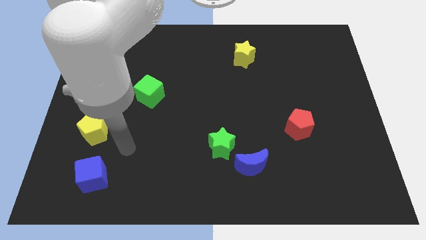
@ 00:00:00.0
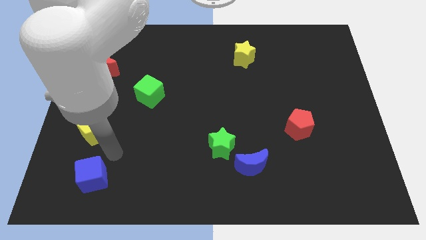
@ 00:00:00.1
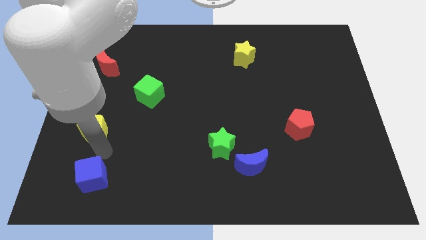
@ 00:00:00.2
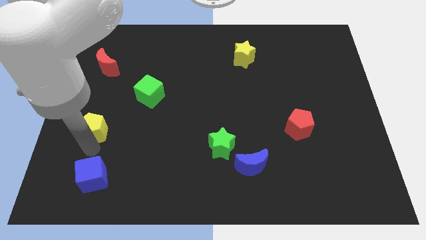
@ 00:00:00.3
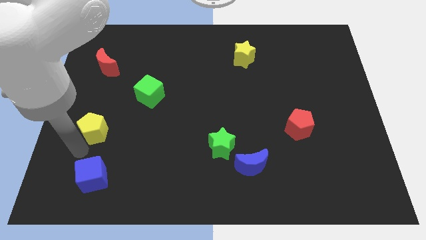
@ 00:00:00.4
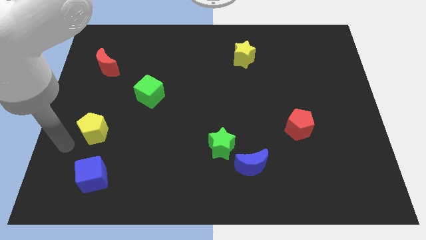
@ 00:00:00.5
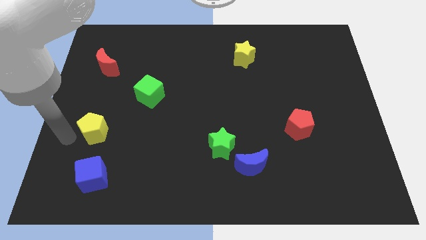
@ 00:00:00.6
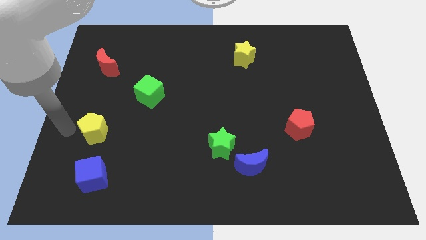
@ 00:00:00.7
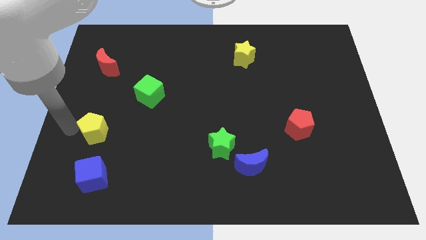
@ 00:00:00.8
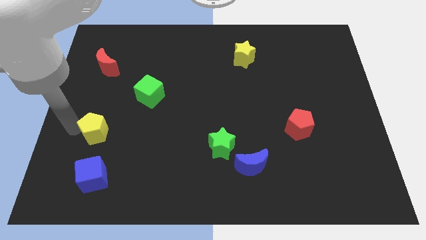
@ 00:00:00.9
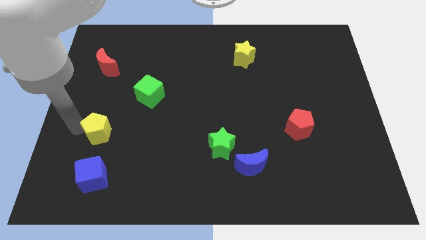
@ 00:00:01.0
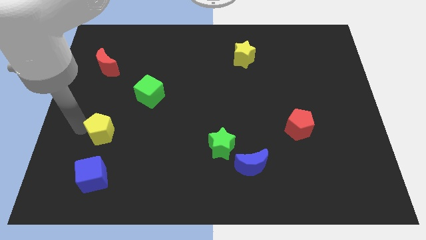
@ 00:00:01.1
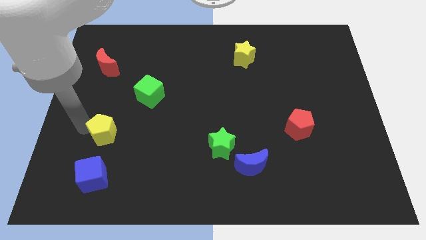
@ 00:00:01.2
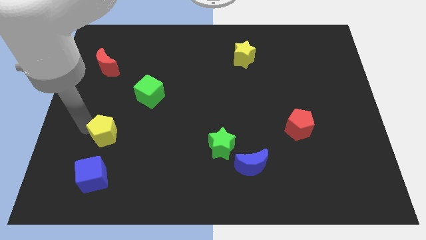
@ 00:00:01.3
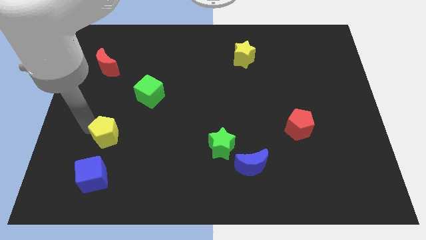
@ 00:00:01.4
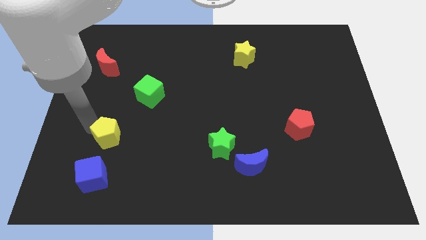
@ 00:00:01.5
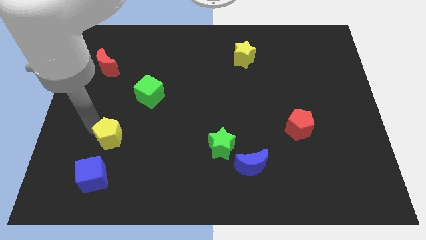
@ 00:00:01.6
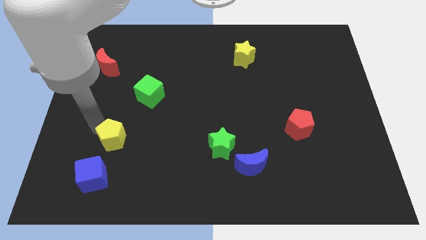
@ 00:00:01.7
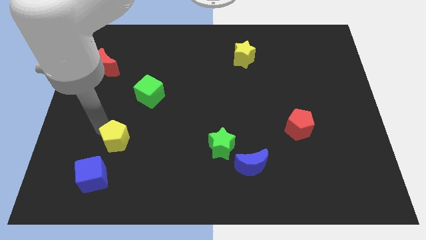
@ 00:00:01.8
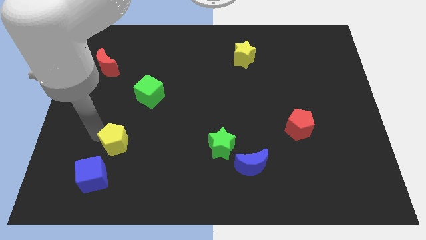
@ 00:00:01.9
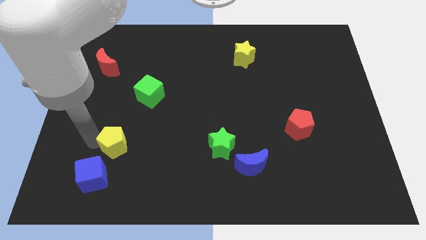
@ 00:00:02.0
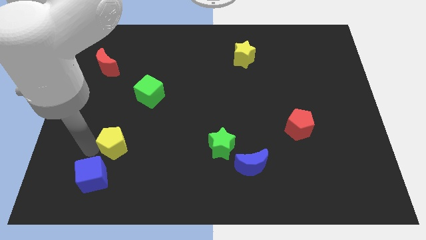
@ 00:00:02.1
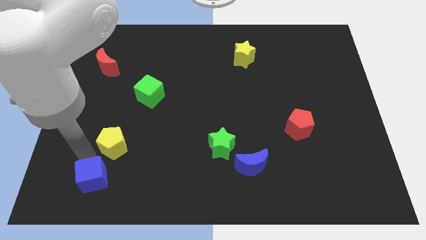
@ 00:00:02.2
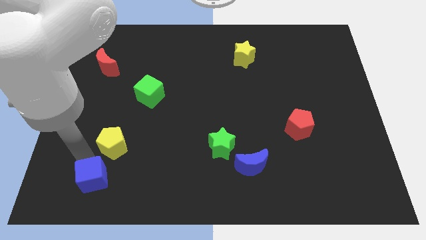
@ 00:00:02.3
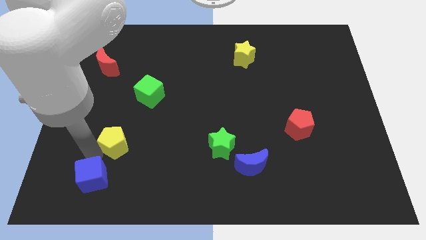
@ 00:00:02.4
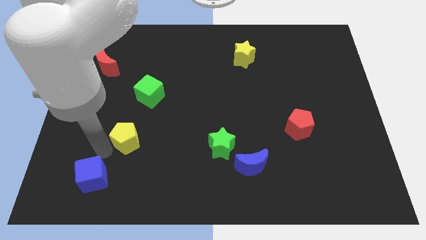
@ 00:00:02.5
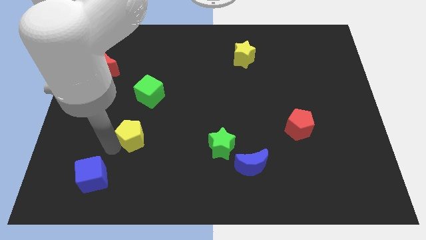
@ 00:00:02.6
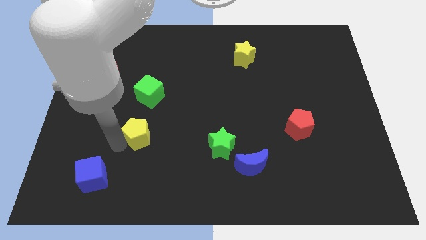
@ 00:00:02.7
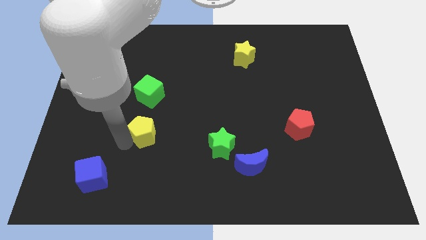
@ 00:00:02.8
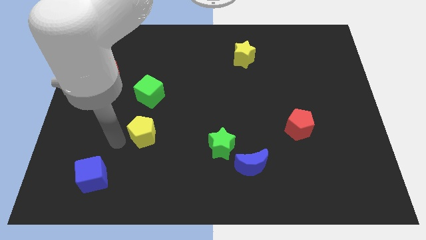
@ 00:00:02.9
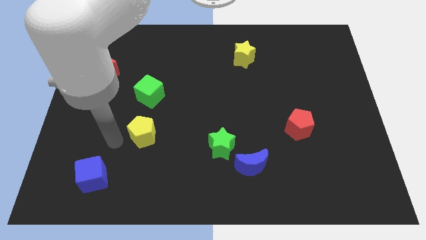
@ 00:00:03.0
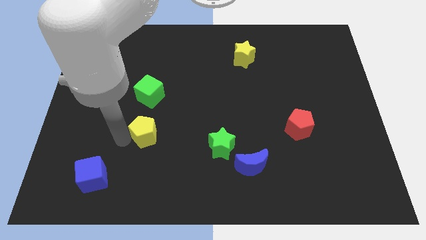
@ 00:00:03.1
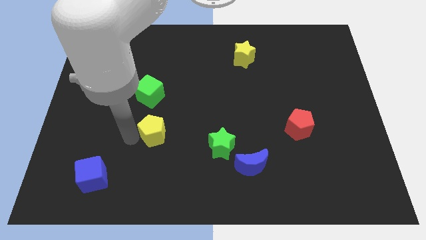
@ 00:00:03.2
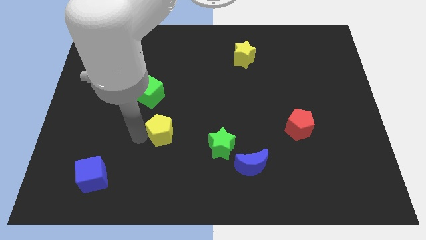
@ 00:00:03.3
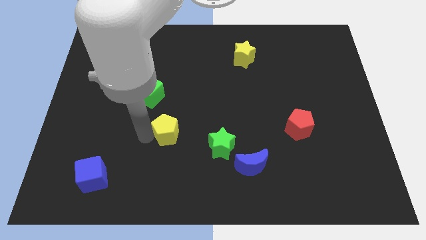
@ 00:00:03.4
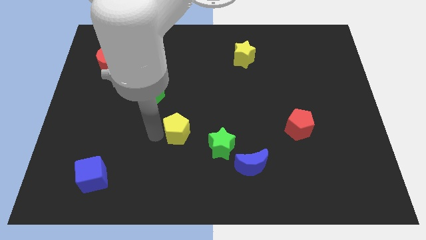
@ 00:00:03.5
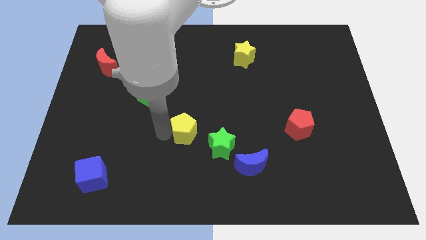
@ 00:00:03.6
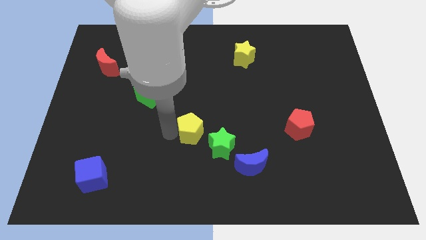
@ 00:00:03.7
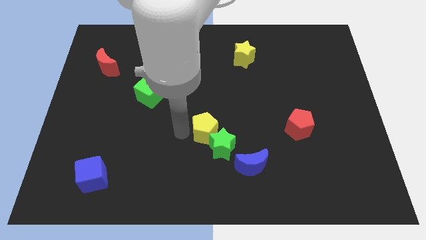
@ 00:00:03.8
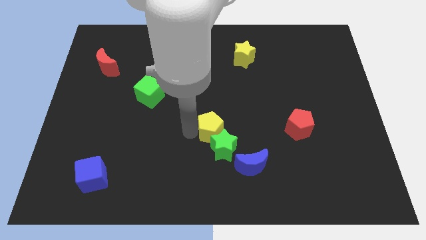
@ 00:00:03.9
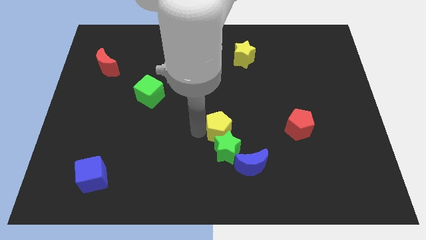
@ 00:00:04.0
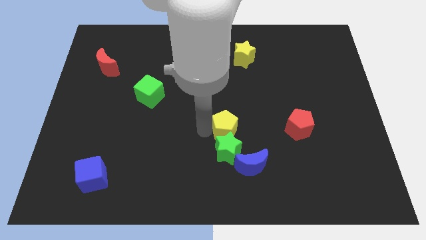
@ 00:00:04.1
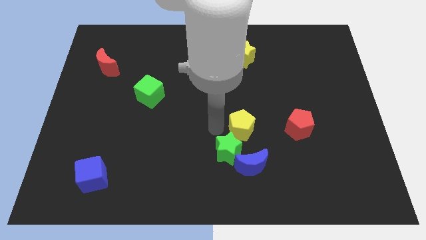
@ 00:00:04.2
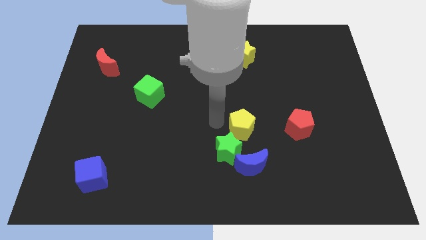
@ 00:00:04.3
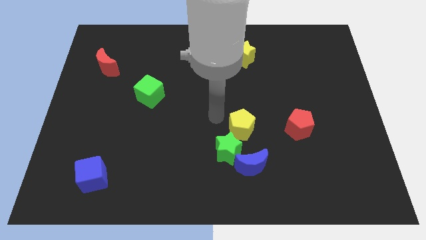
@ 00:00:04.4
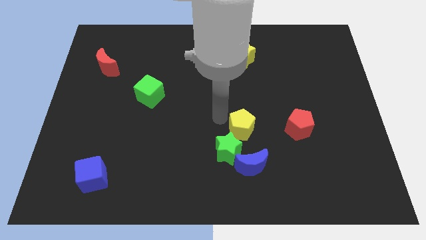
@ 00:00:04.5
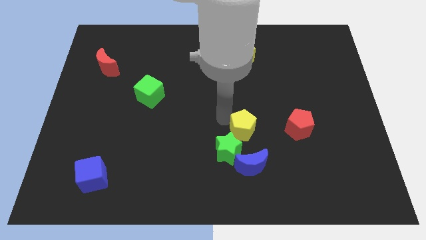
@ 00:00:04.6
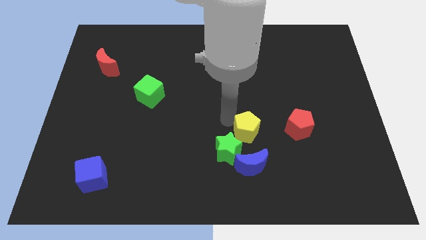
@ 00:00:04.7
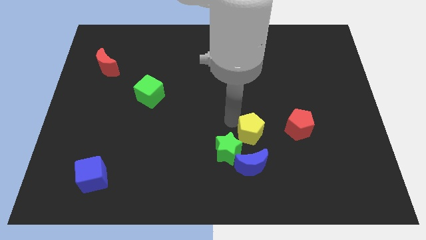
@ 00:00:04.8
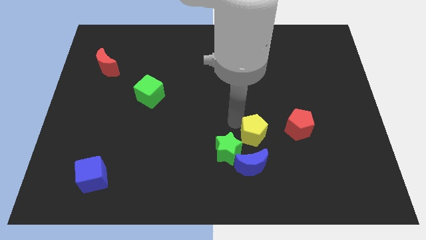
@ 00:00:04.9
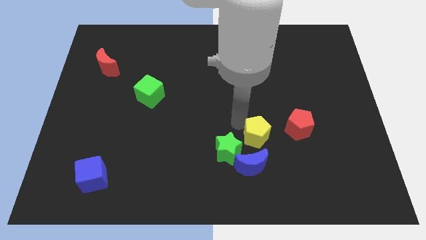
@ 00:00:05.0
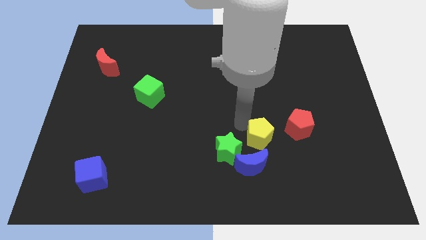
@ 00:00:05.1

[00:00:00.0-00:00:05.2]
put the yellow pentagon to the bottom left side of the red pentagon

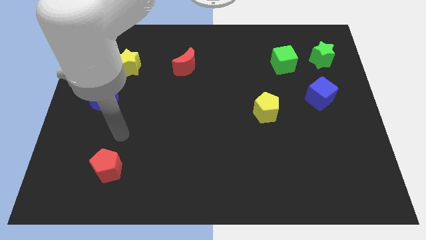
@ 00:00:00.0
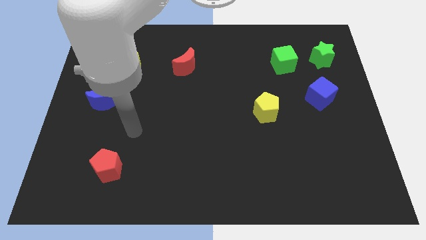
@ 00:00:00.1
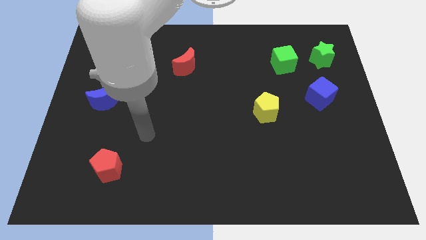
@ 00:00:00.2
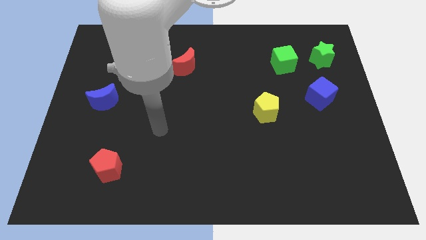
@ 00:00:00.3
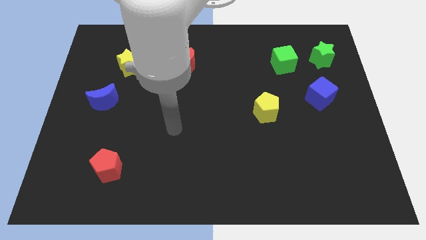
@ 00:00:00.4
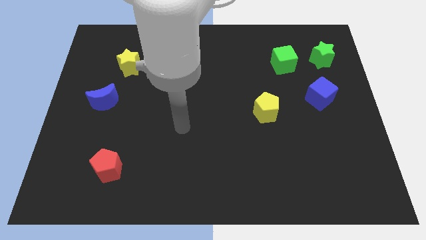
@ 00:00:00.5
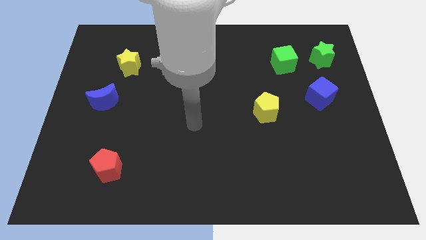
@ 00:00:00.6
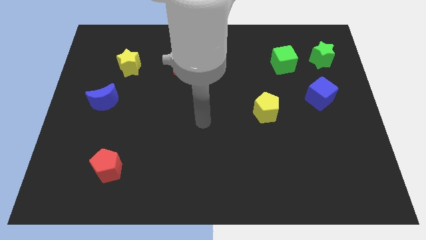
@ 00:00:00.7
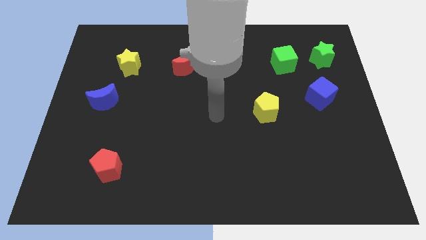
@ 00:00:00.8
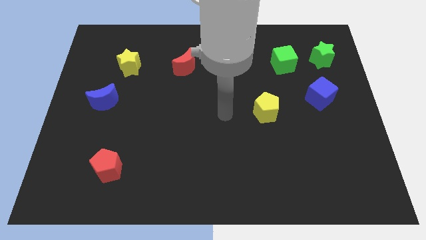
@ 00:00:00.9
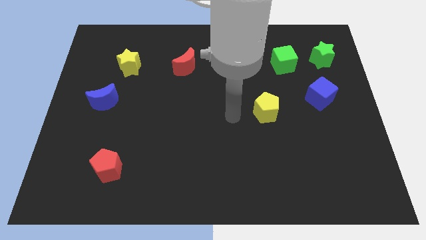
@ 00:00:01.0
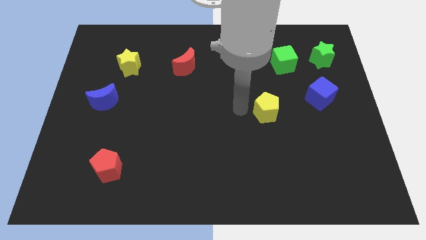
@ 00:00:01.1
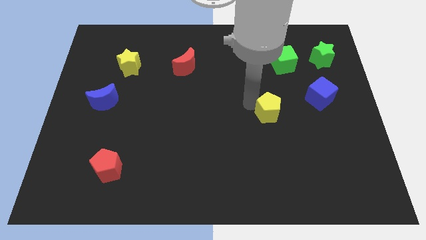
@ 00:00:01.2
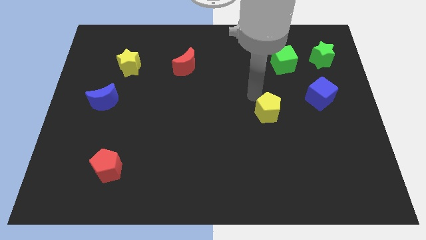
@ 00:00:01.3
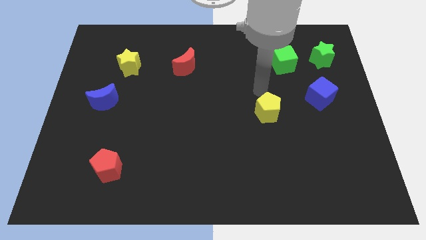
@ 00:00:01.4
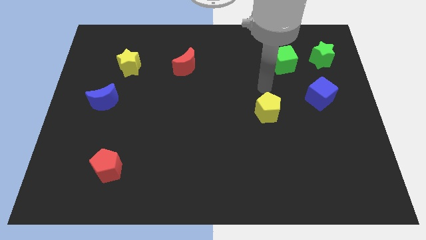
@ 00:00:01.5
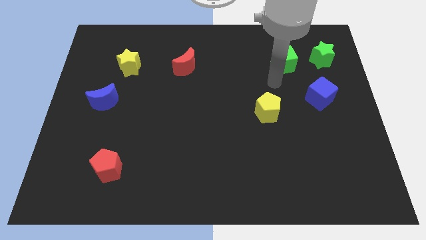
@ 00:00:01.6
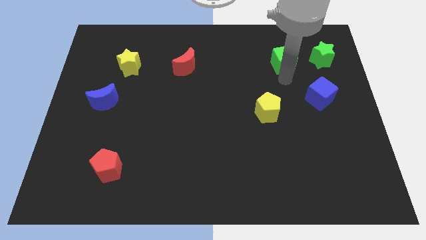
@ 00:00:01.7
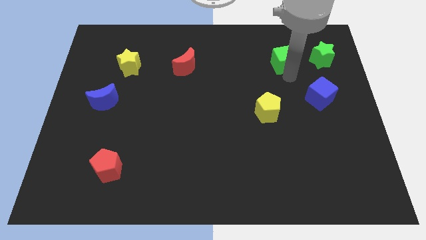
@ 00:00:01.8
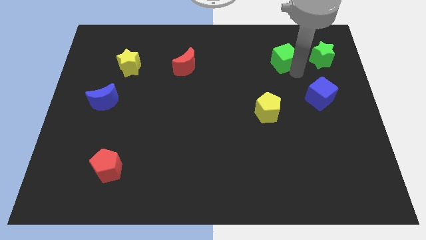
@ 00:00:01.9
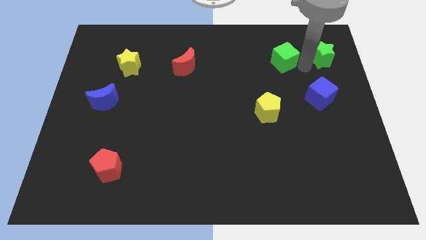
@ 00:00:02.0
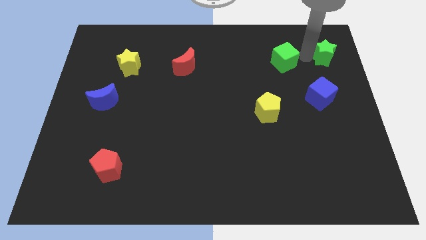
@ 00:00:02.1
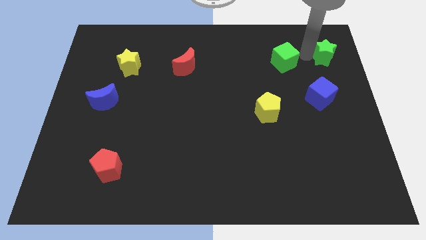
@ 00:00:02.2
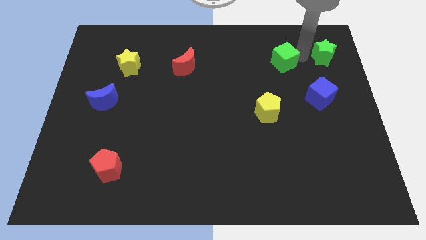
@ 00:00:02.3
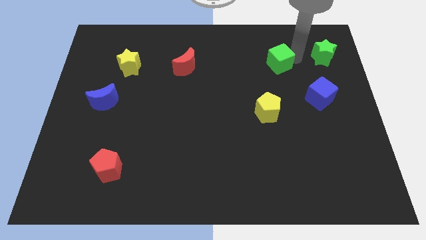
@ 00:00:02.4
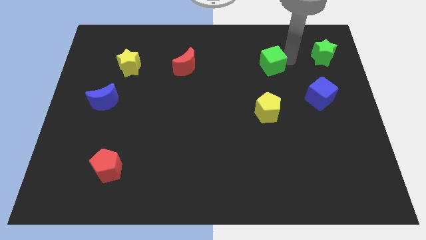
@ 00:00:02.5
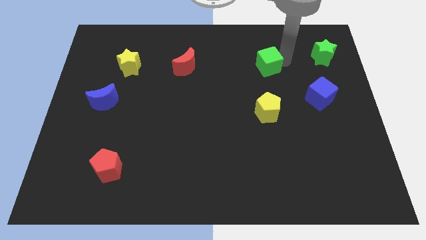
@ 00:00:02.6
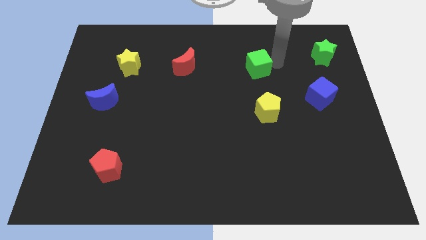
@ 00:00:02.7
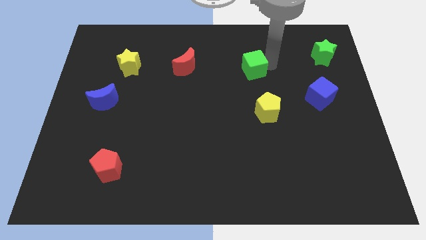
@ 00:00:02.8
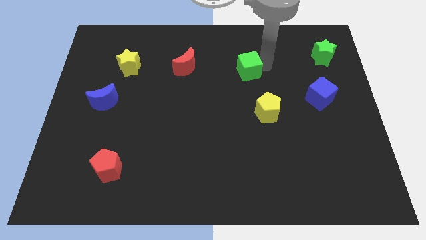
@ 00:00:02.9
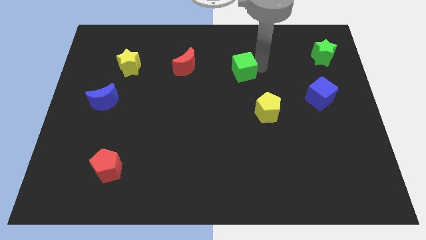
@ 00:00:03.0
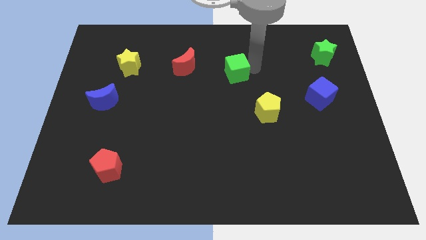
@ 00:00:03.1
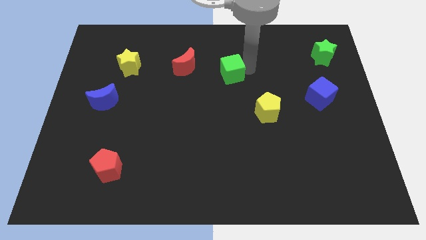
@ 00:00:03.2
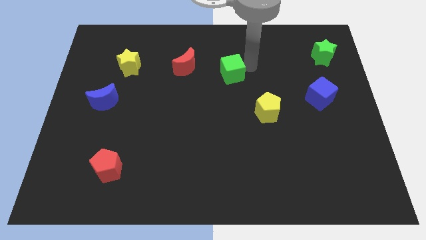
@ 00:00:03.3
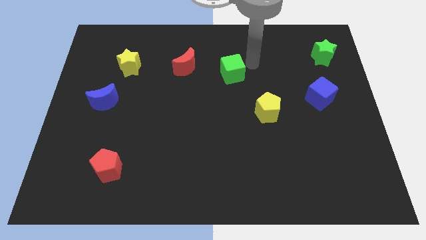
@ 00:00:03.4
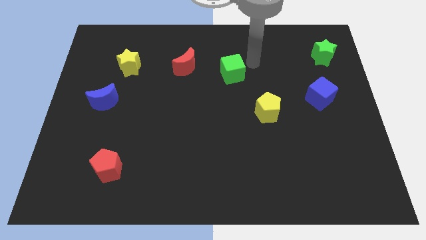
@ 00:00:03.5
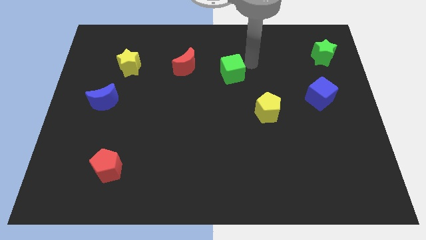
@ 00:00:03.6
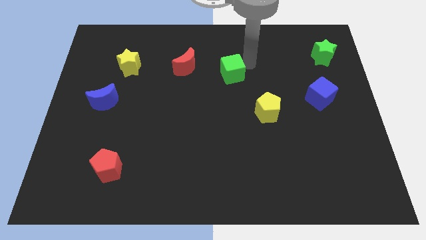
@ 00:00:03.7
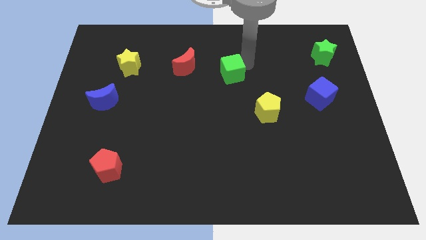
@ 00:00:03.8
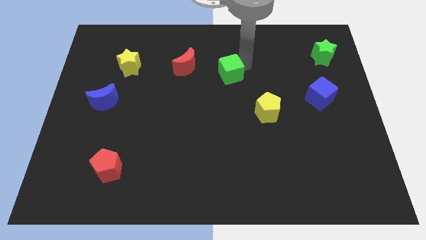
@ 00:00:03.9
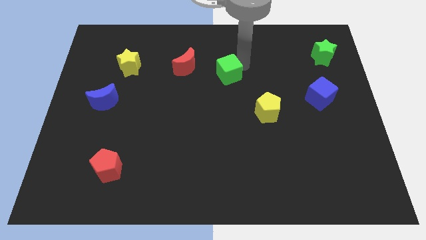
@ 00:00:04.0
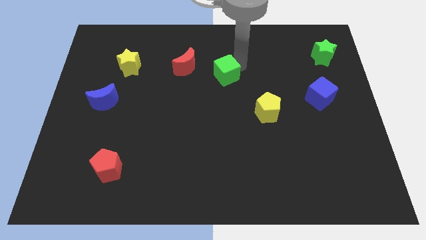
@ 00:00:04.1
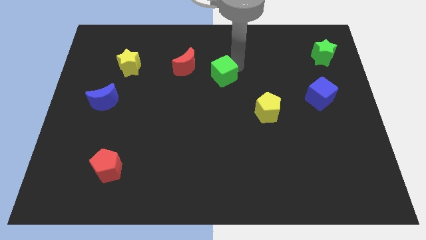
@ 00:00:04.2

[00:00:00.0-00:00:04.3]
move the green cube to the bottom right side of the red moon
